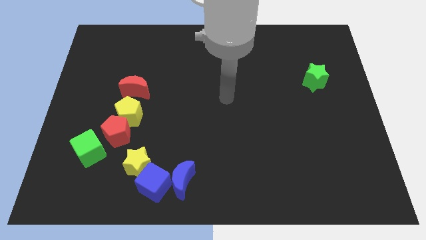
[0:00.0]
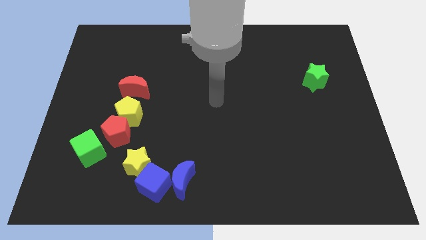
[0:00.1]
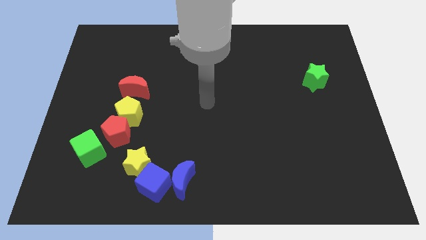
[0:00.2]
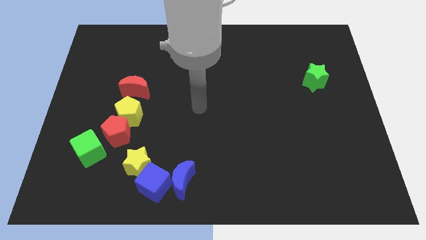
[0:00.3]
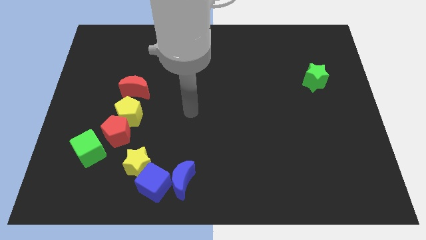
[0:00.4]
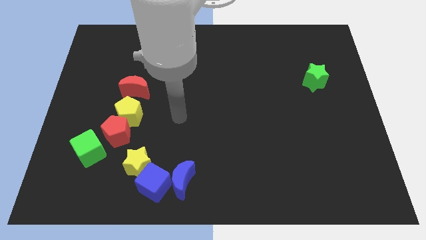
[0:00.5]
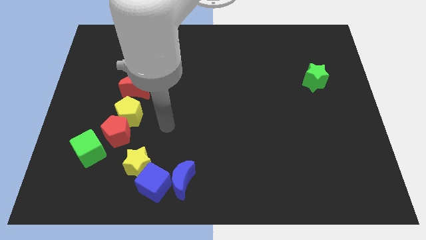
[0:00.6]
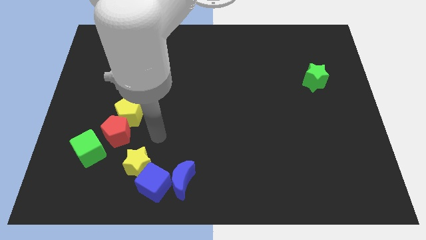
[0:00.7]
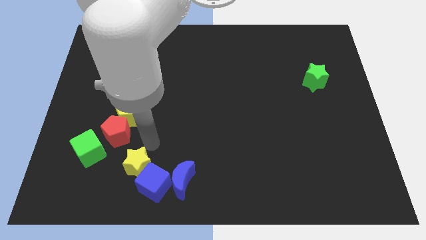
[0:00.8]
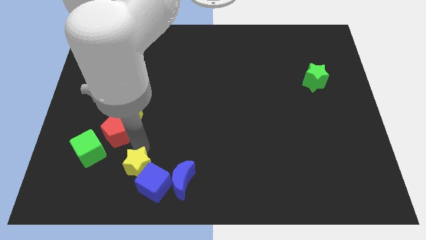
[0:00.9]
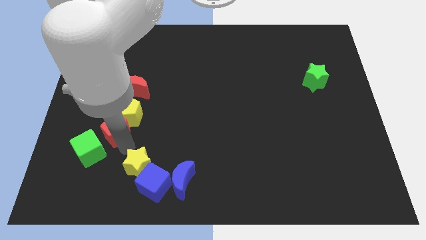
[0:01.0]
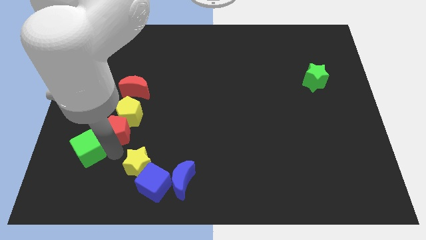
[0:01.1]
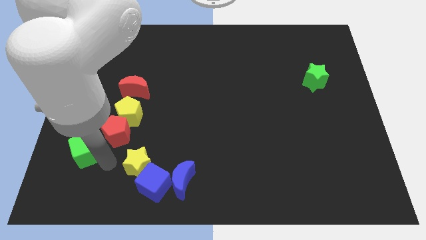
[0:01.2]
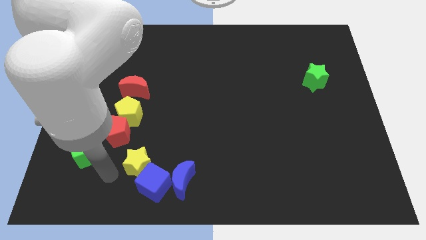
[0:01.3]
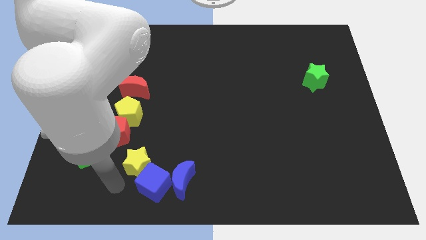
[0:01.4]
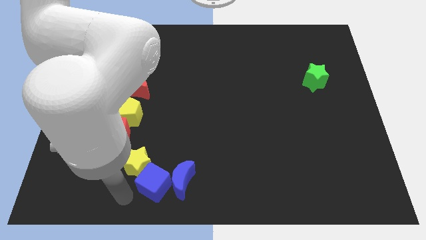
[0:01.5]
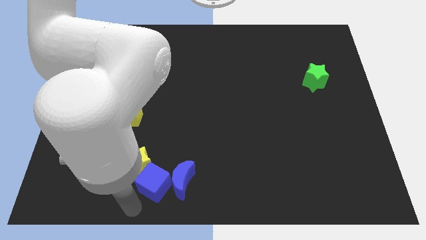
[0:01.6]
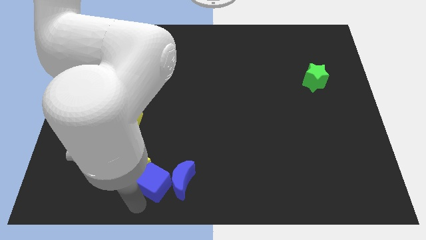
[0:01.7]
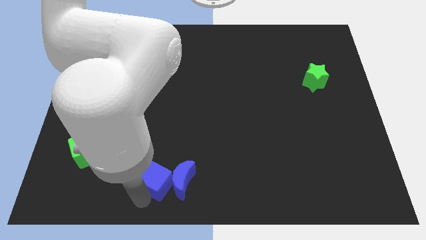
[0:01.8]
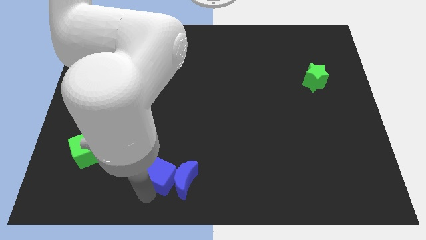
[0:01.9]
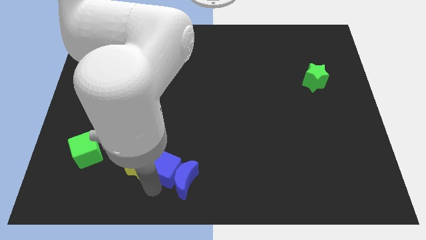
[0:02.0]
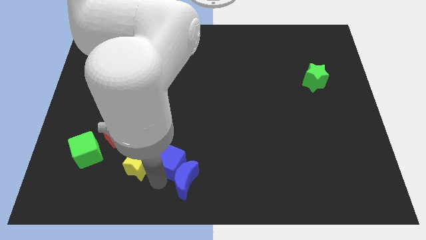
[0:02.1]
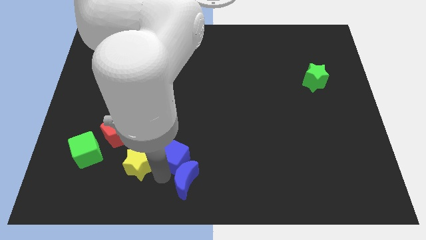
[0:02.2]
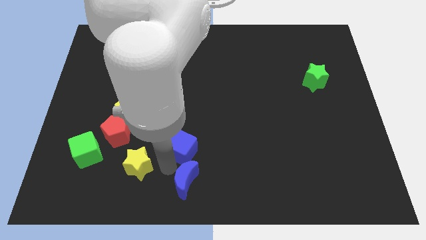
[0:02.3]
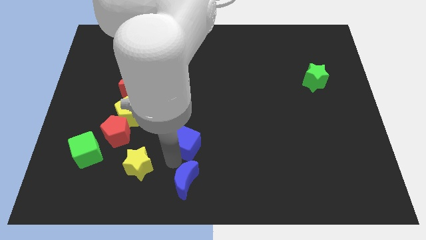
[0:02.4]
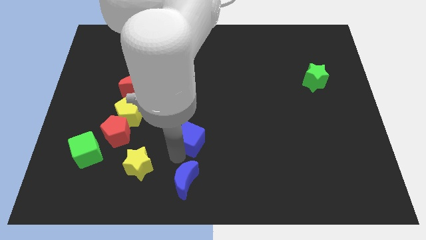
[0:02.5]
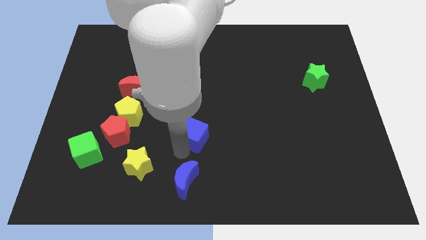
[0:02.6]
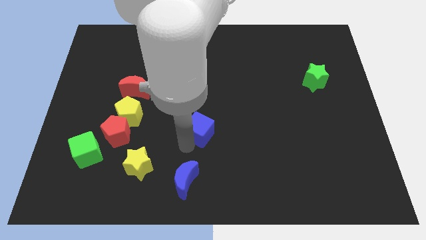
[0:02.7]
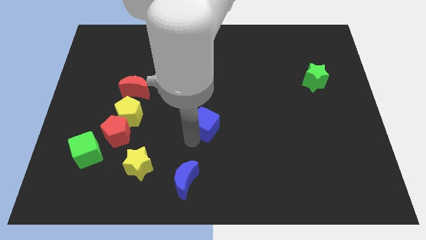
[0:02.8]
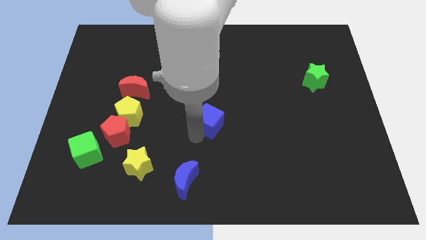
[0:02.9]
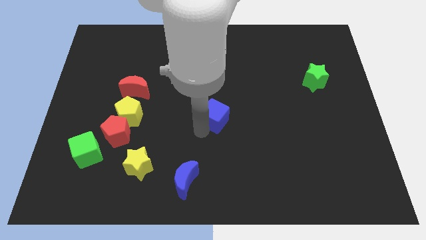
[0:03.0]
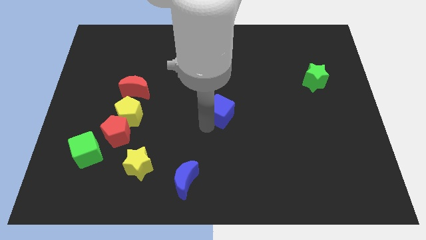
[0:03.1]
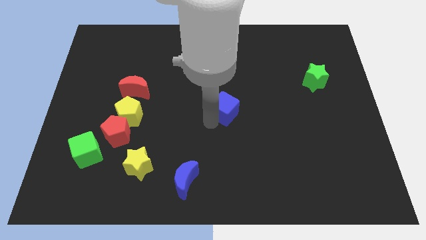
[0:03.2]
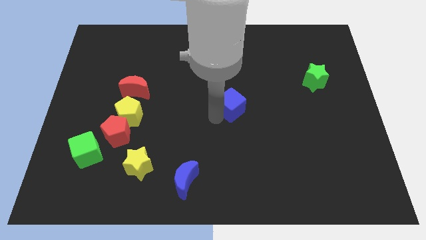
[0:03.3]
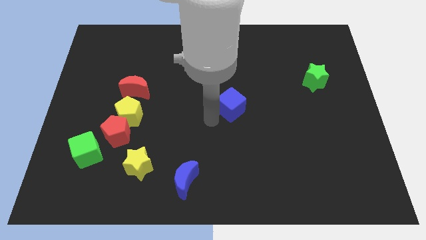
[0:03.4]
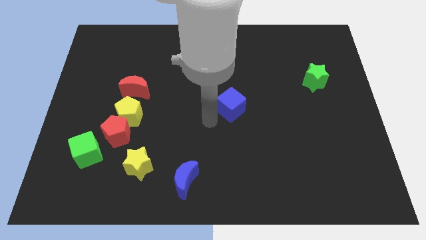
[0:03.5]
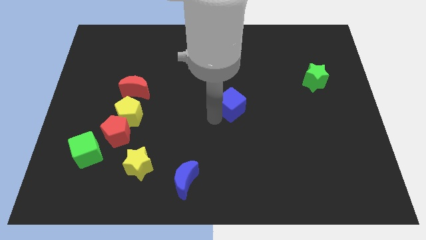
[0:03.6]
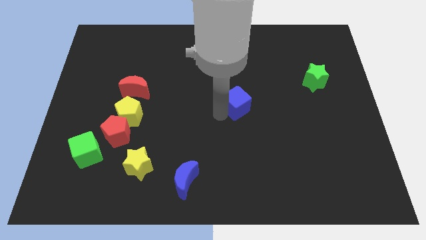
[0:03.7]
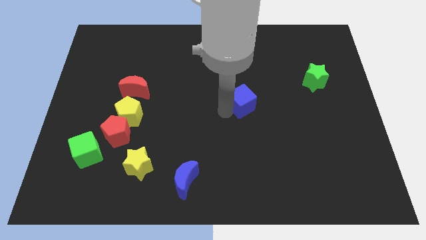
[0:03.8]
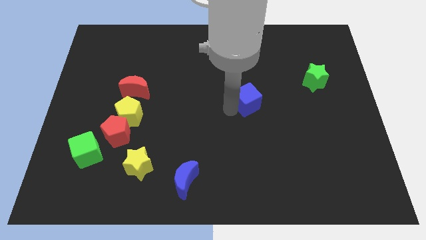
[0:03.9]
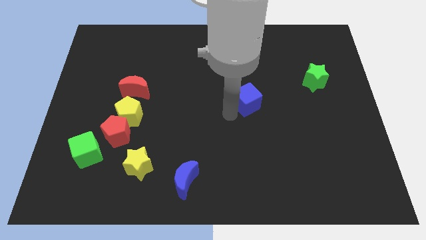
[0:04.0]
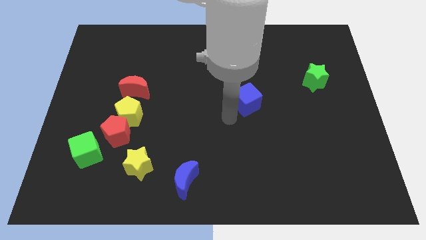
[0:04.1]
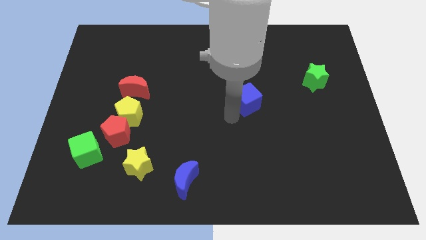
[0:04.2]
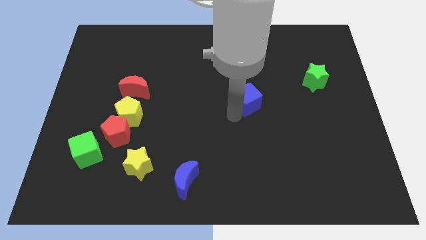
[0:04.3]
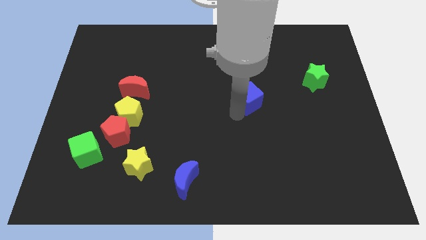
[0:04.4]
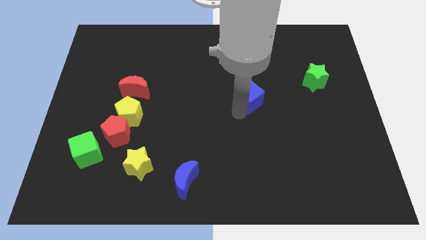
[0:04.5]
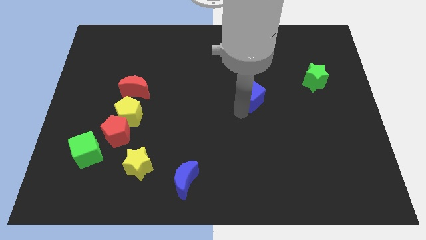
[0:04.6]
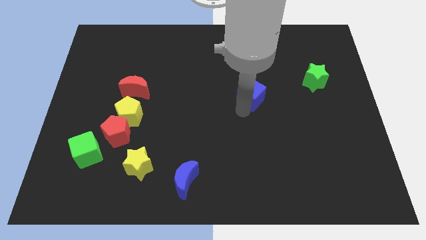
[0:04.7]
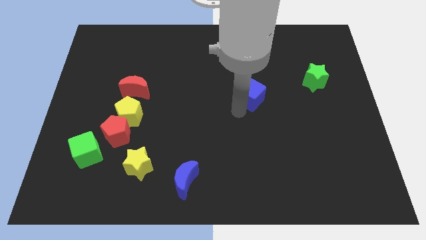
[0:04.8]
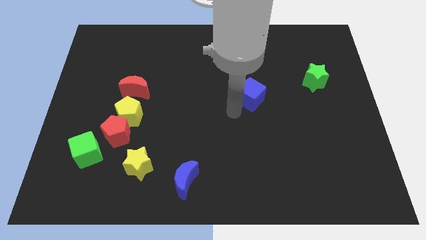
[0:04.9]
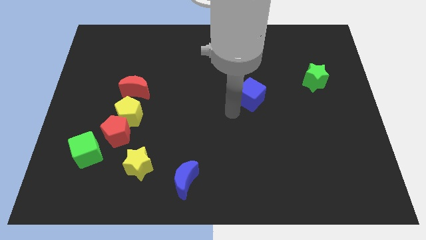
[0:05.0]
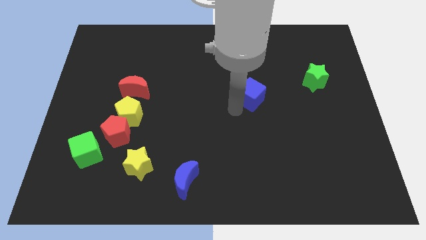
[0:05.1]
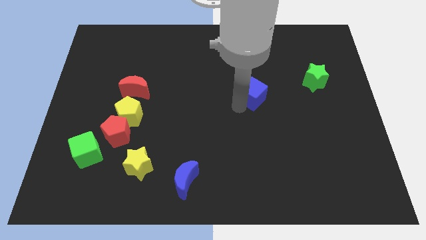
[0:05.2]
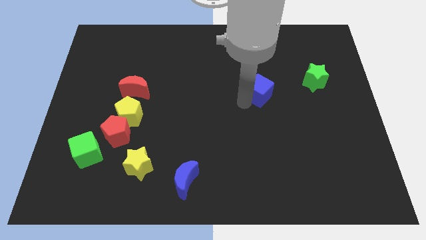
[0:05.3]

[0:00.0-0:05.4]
move the blue cube left of the green star

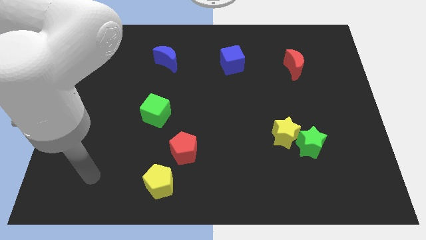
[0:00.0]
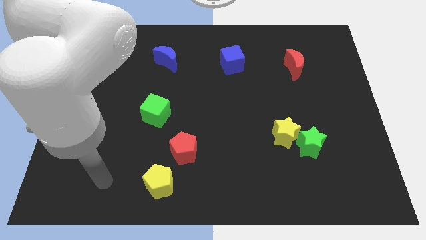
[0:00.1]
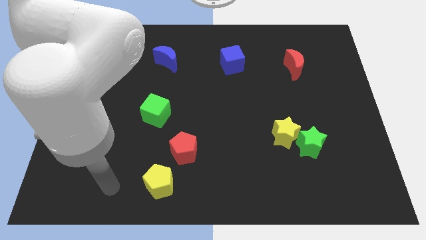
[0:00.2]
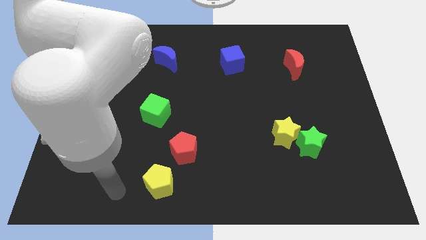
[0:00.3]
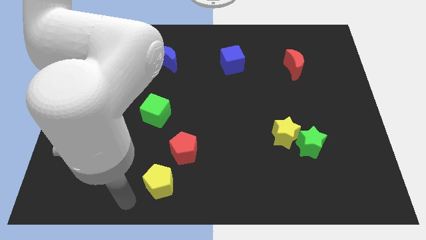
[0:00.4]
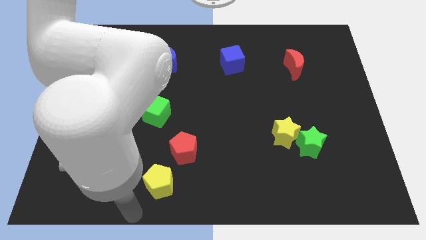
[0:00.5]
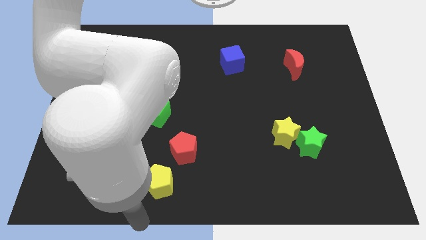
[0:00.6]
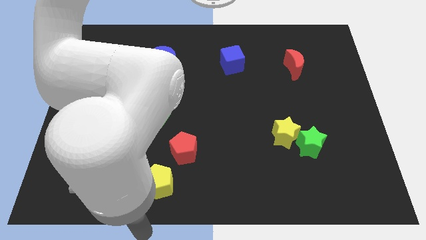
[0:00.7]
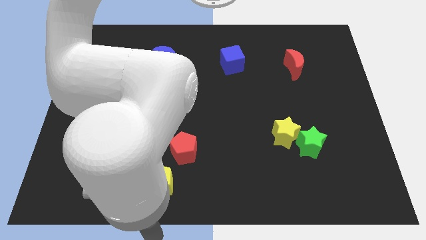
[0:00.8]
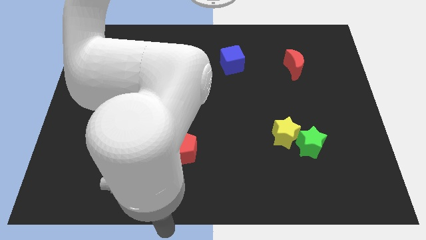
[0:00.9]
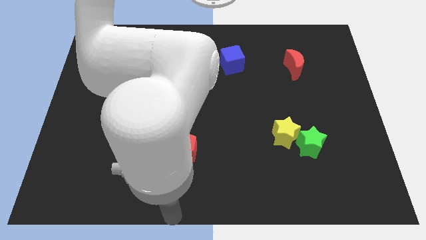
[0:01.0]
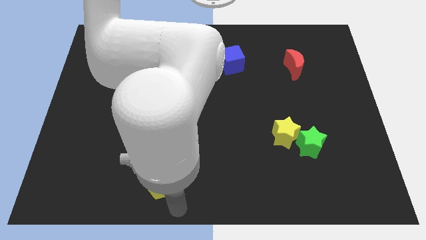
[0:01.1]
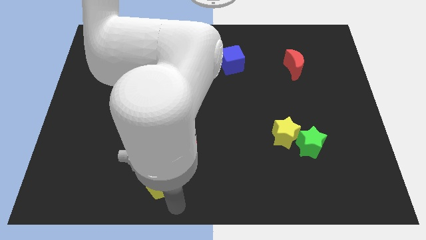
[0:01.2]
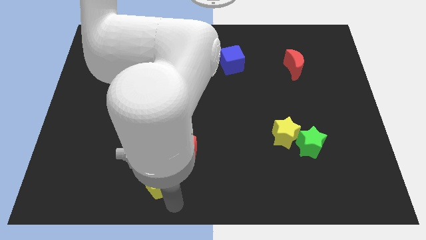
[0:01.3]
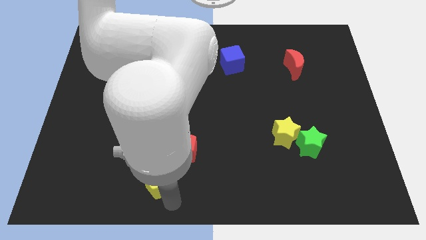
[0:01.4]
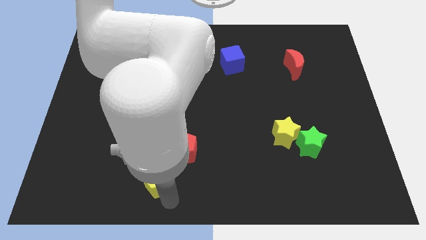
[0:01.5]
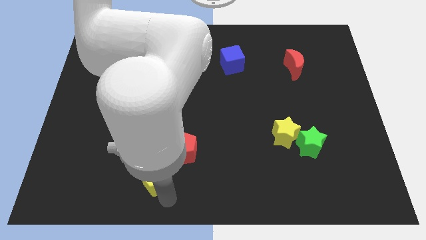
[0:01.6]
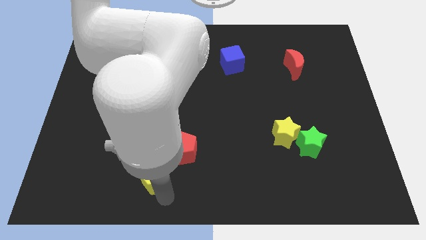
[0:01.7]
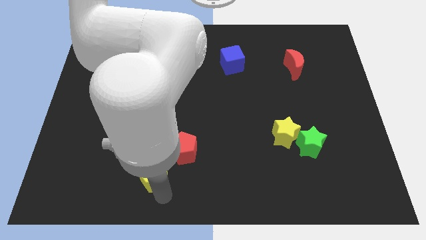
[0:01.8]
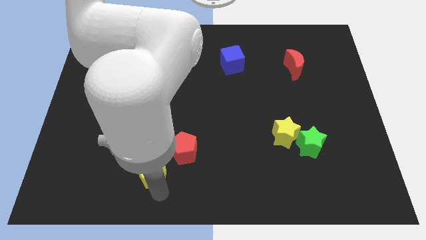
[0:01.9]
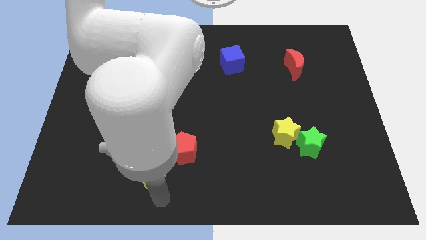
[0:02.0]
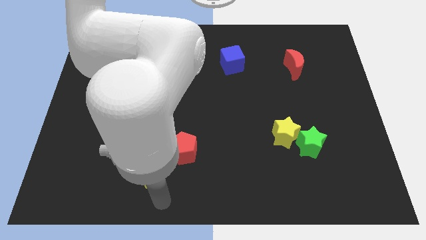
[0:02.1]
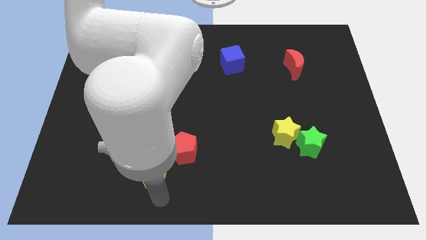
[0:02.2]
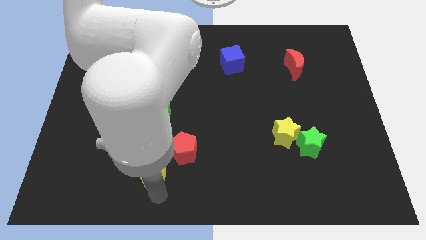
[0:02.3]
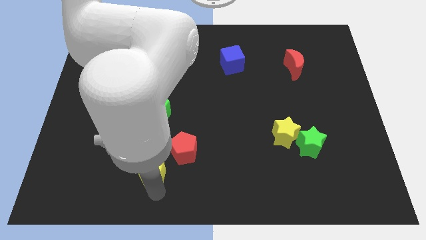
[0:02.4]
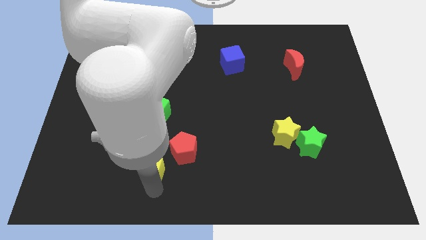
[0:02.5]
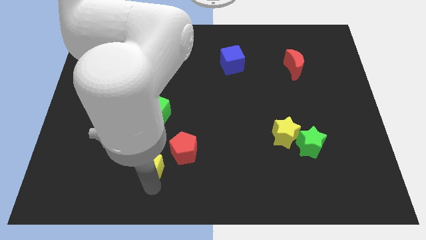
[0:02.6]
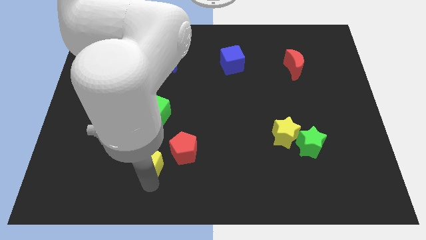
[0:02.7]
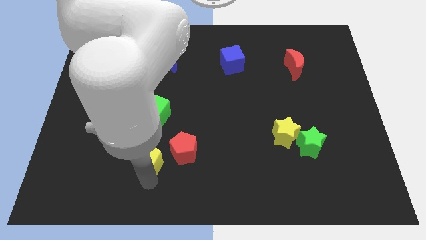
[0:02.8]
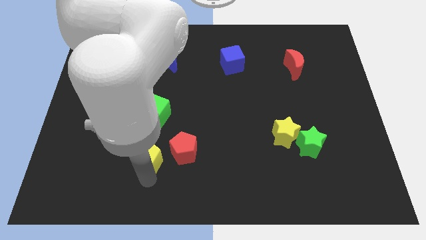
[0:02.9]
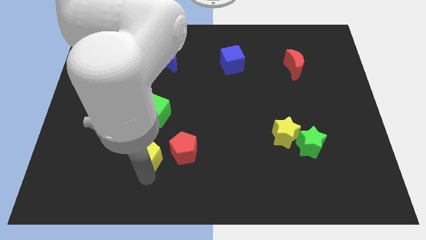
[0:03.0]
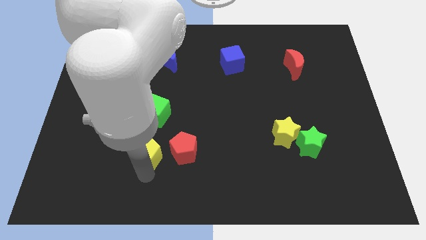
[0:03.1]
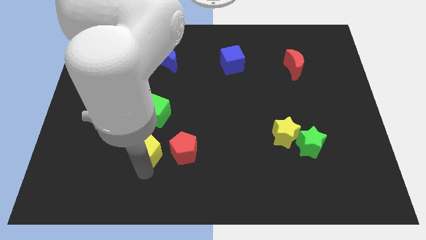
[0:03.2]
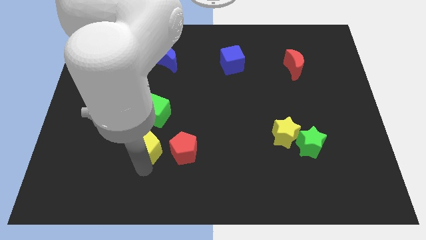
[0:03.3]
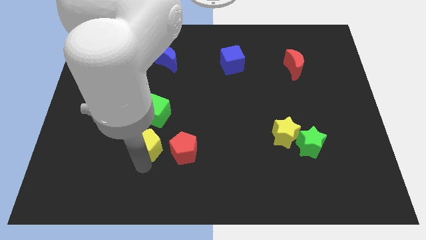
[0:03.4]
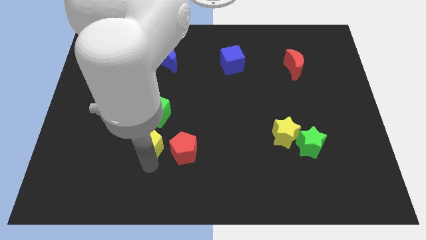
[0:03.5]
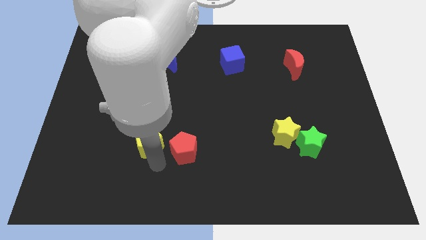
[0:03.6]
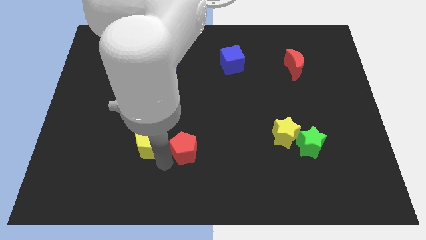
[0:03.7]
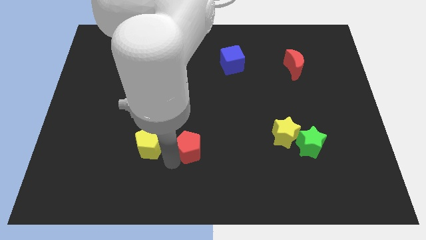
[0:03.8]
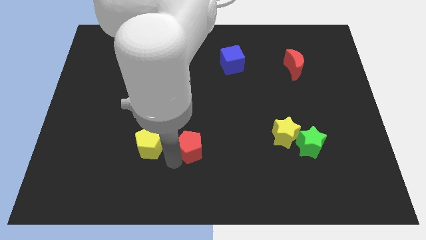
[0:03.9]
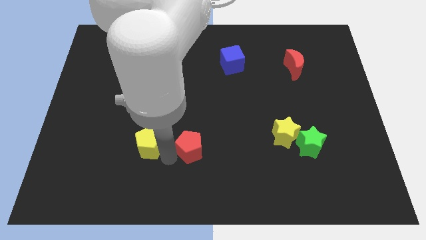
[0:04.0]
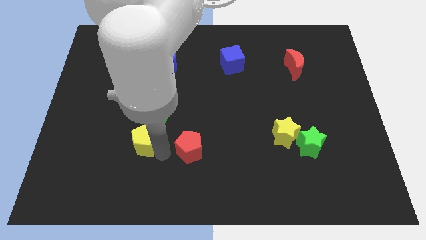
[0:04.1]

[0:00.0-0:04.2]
put the yellow pentagon diagonally down and to the left of the green cube
